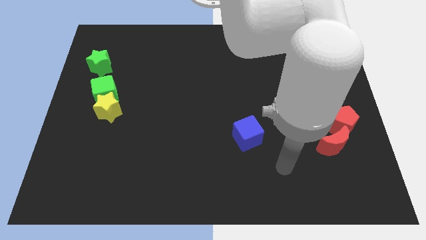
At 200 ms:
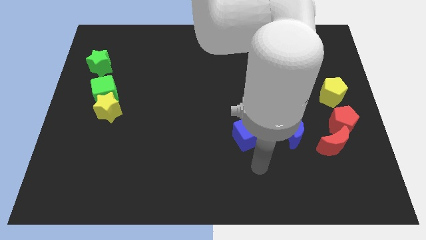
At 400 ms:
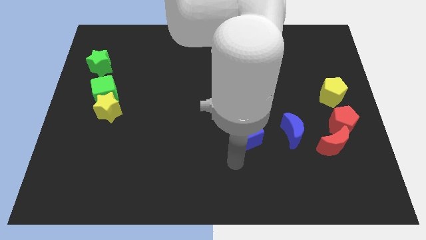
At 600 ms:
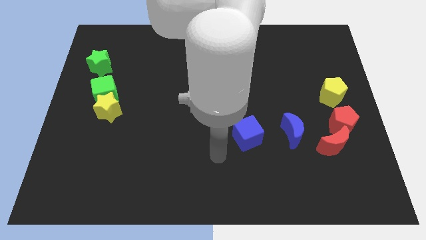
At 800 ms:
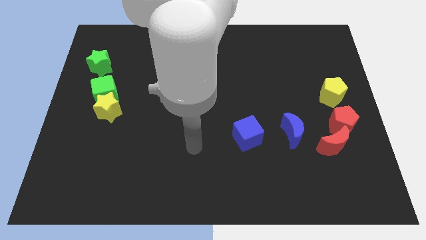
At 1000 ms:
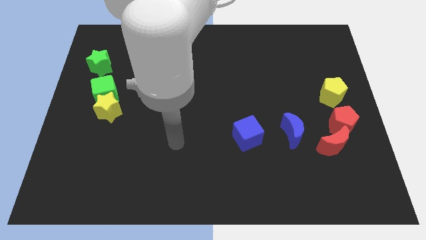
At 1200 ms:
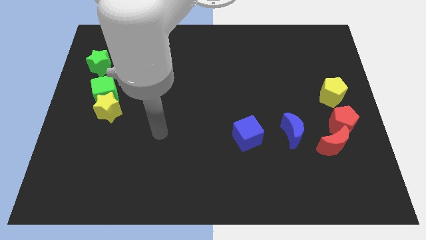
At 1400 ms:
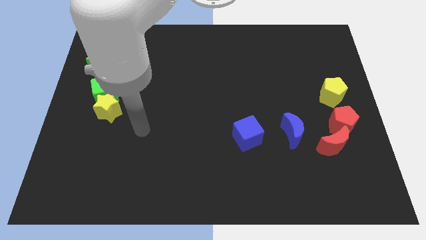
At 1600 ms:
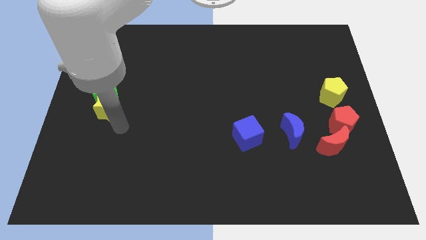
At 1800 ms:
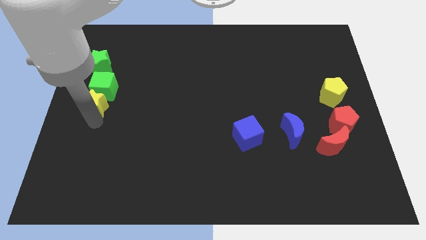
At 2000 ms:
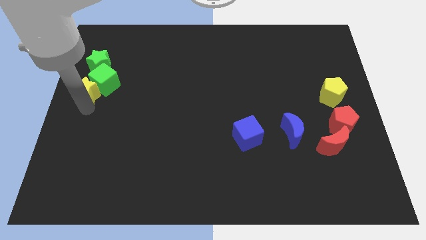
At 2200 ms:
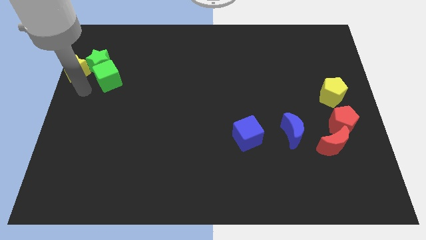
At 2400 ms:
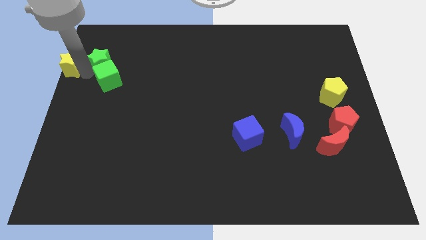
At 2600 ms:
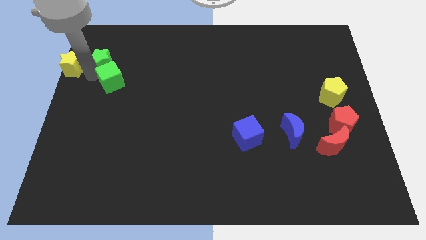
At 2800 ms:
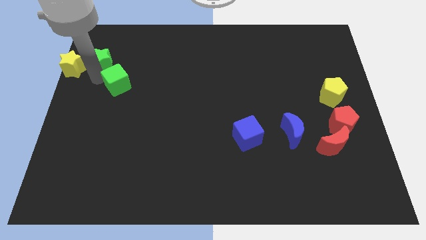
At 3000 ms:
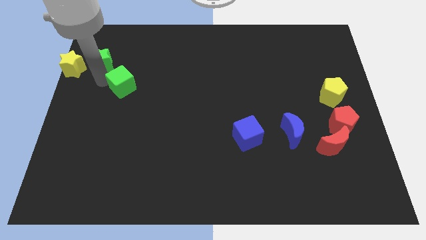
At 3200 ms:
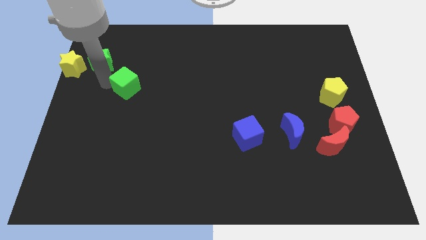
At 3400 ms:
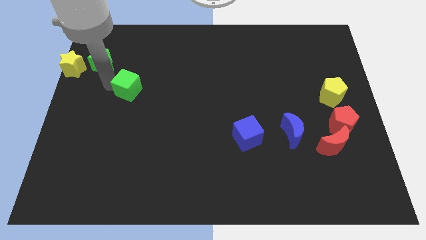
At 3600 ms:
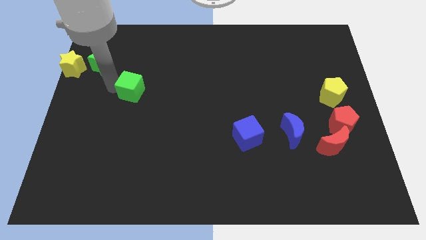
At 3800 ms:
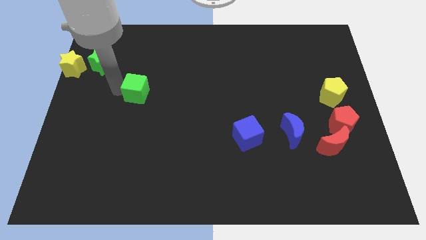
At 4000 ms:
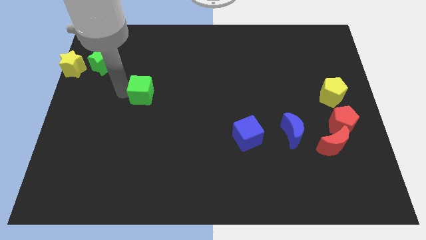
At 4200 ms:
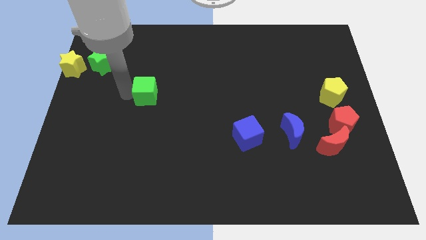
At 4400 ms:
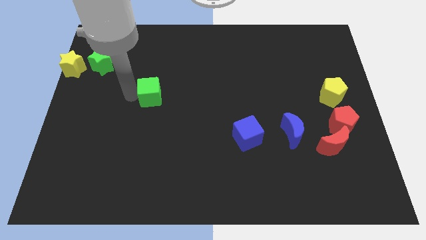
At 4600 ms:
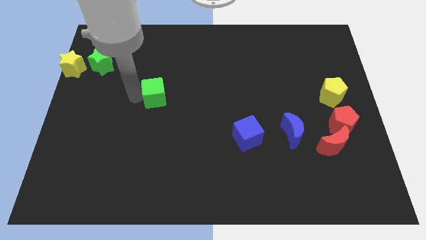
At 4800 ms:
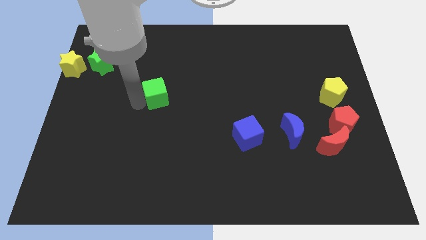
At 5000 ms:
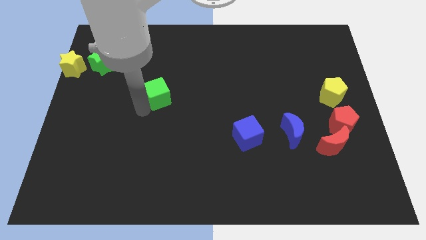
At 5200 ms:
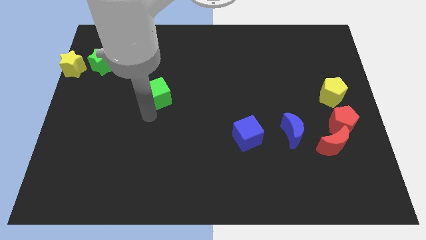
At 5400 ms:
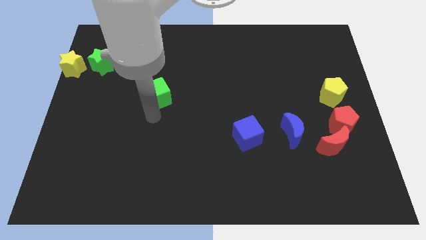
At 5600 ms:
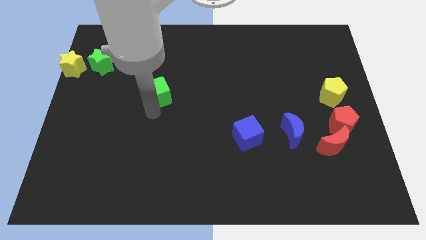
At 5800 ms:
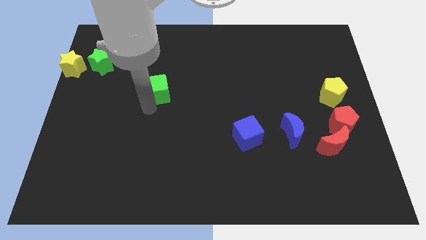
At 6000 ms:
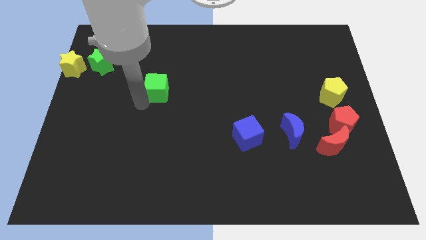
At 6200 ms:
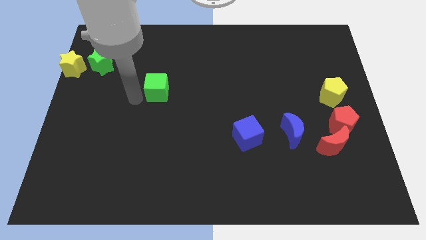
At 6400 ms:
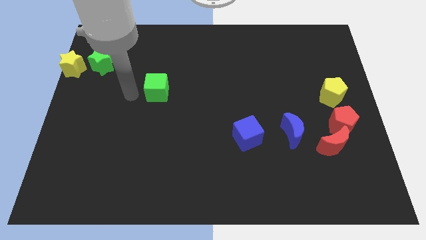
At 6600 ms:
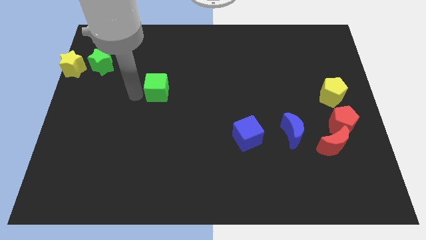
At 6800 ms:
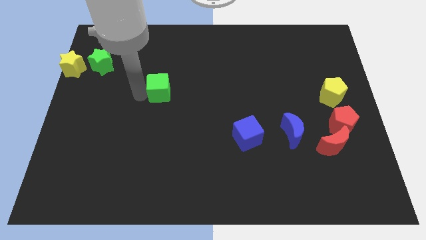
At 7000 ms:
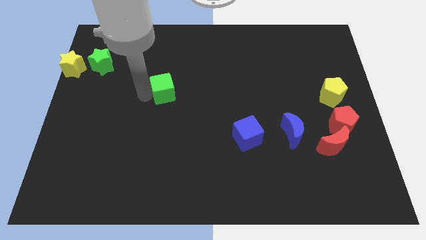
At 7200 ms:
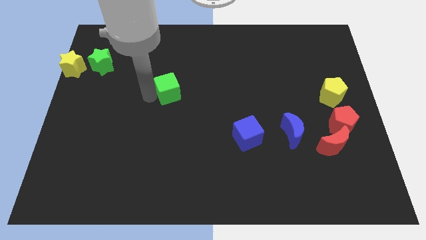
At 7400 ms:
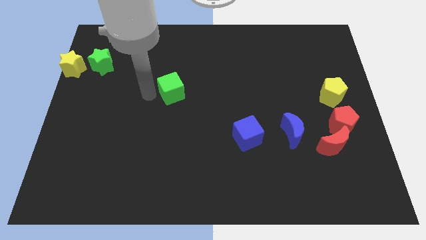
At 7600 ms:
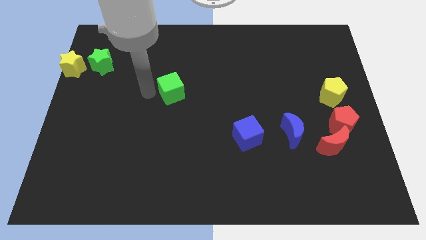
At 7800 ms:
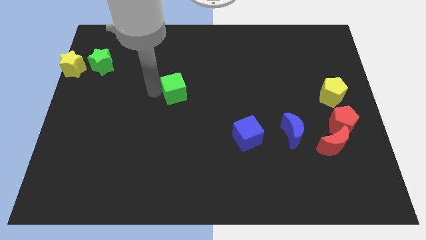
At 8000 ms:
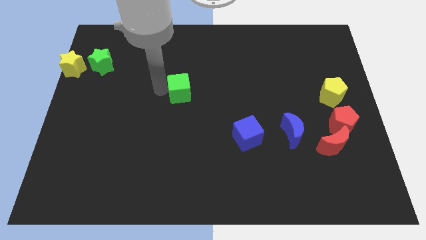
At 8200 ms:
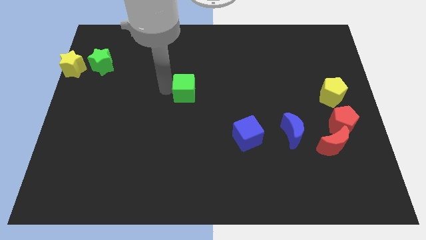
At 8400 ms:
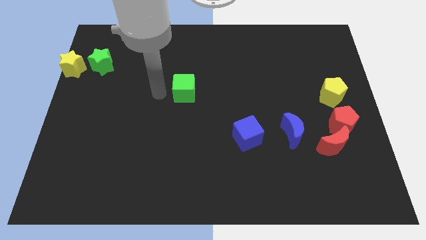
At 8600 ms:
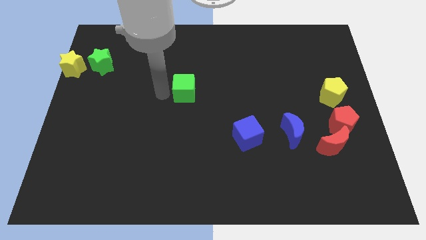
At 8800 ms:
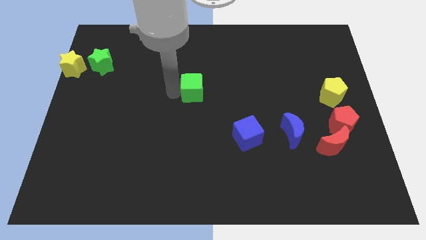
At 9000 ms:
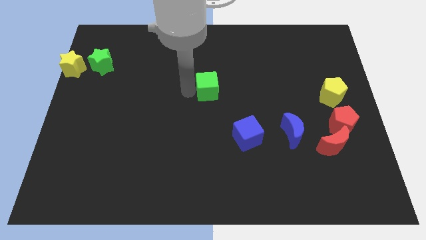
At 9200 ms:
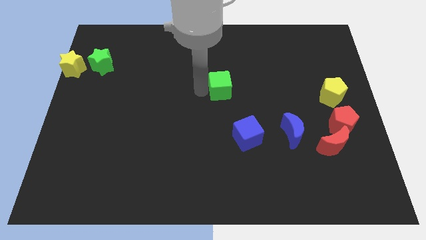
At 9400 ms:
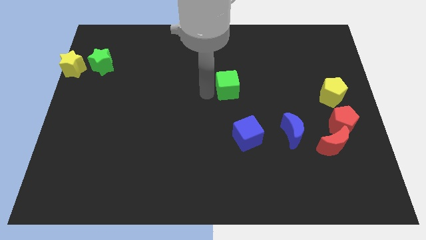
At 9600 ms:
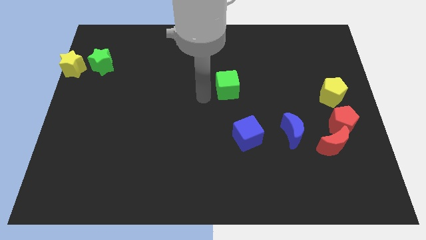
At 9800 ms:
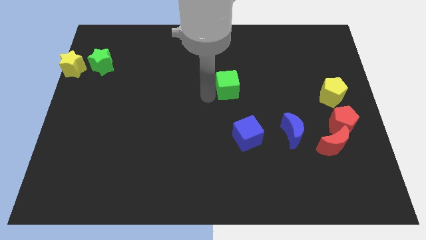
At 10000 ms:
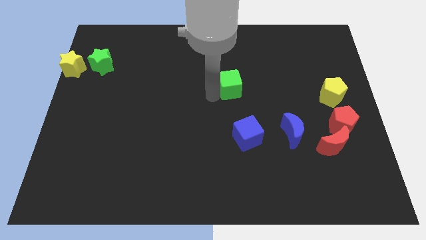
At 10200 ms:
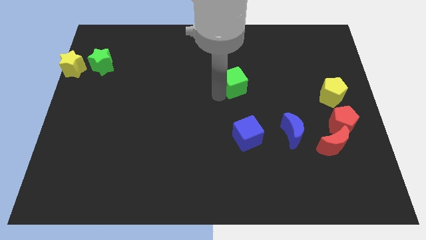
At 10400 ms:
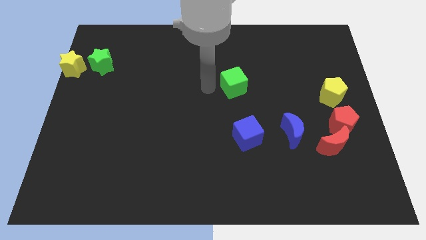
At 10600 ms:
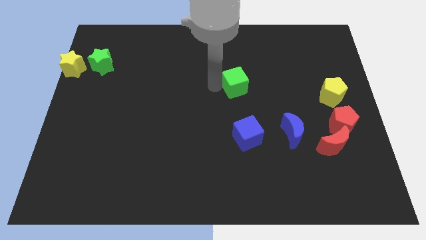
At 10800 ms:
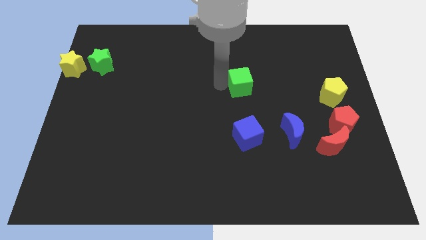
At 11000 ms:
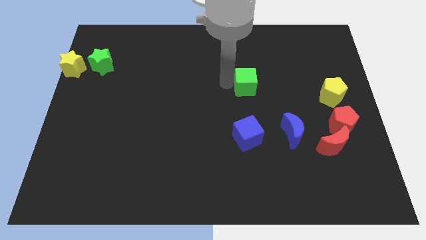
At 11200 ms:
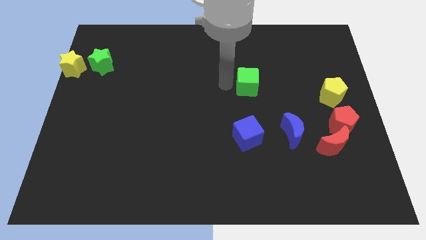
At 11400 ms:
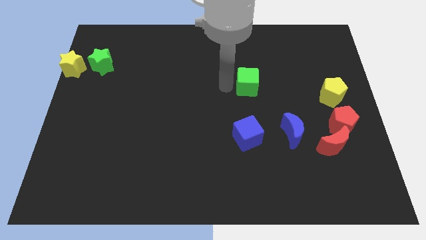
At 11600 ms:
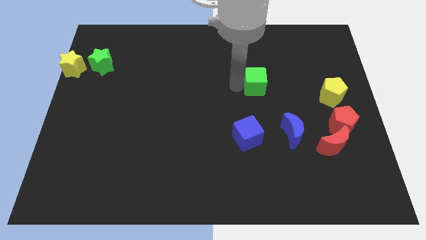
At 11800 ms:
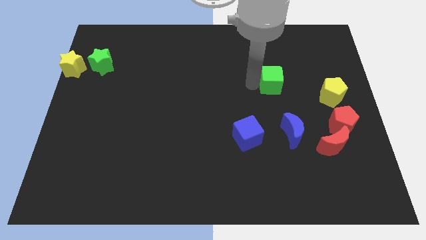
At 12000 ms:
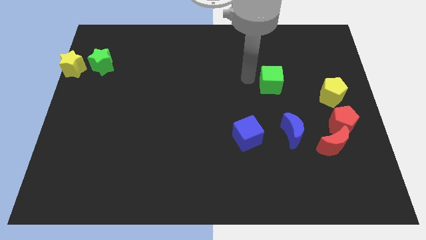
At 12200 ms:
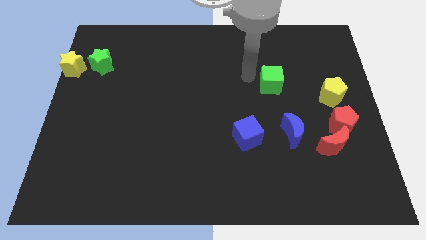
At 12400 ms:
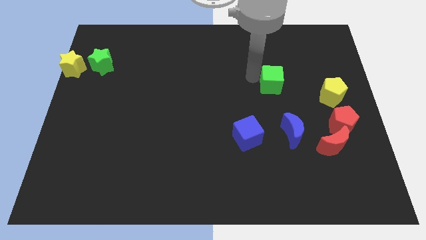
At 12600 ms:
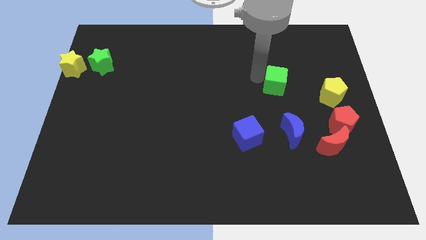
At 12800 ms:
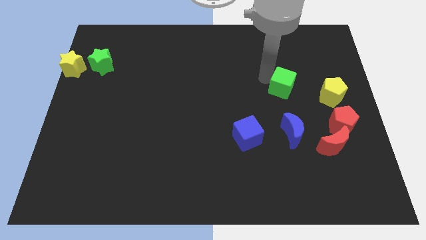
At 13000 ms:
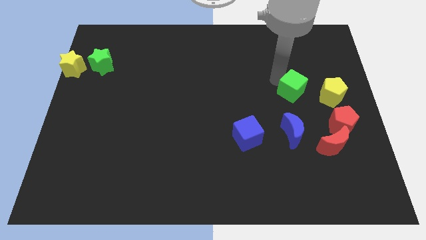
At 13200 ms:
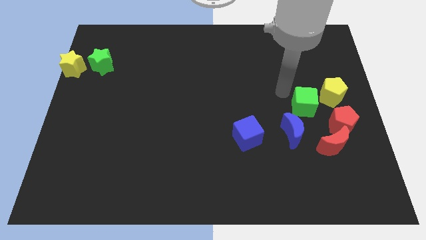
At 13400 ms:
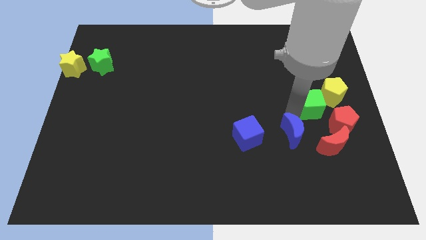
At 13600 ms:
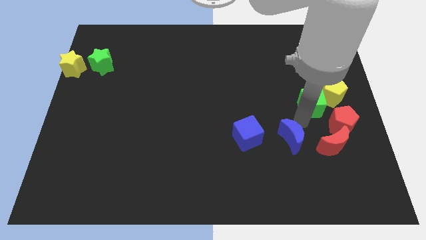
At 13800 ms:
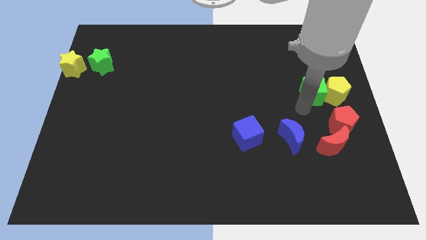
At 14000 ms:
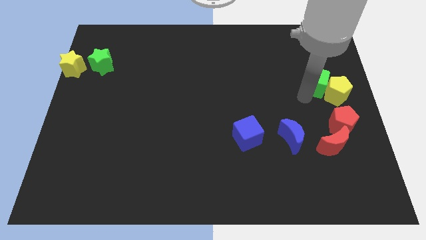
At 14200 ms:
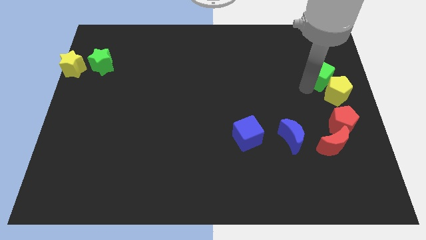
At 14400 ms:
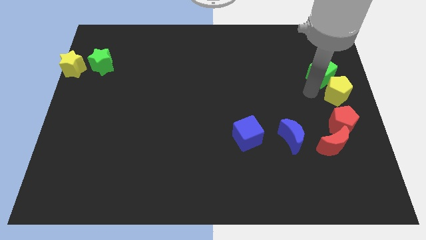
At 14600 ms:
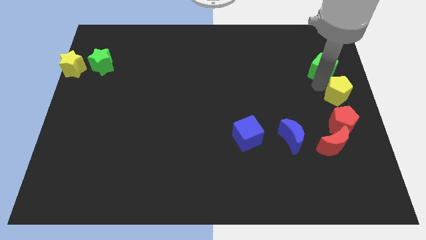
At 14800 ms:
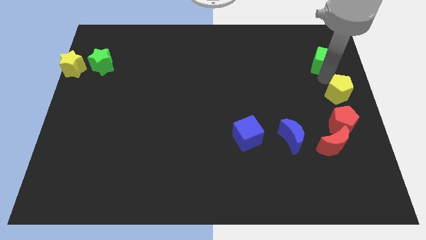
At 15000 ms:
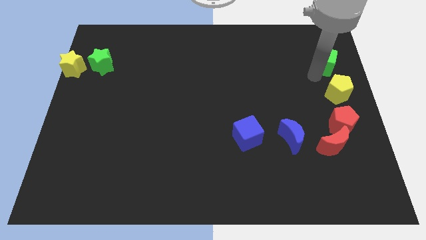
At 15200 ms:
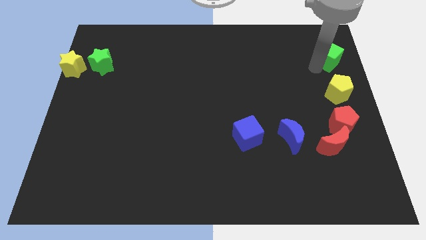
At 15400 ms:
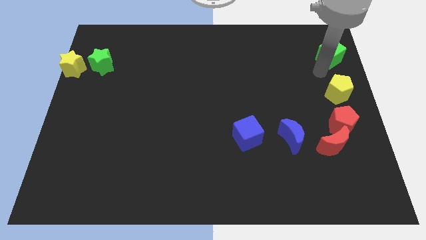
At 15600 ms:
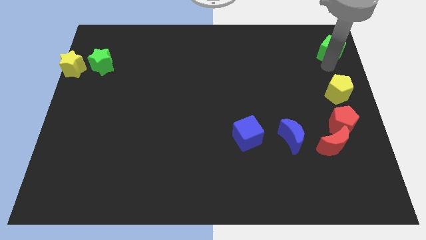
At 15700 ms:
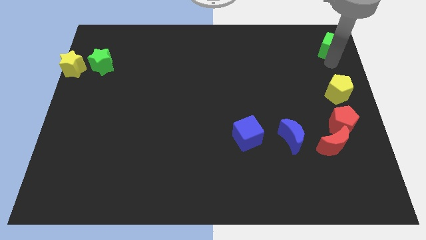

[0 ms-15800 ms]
put the green cube to the top right of the board
